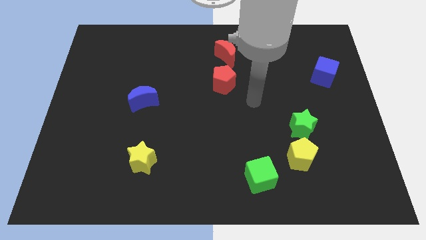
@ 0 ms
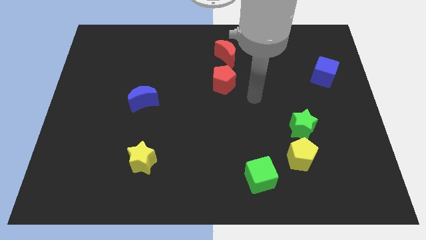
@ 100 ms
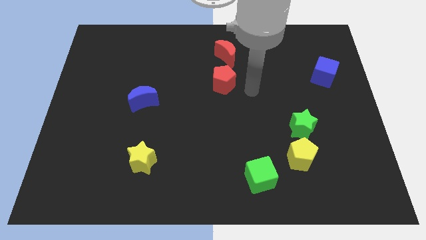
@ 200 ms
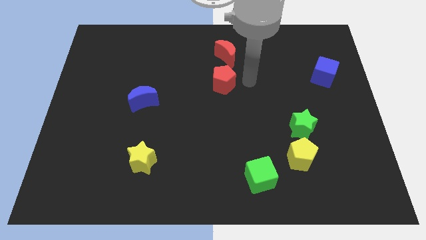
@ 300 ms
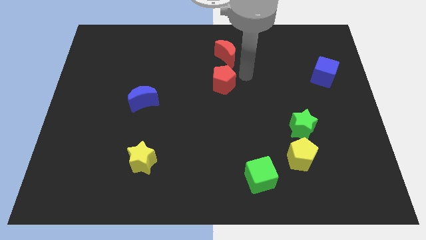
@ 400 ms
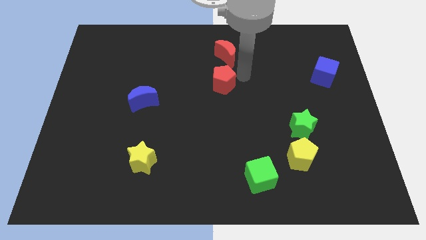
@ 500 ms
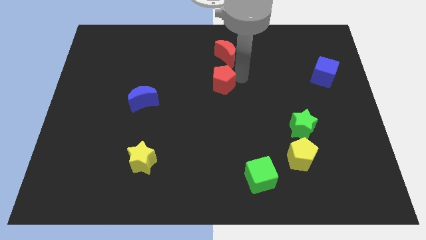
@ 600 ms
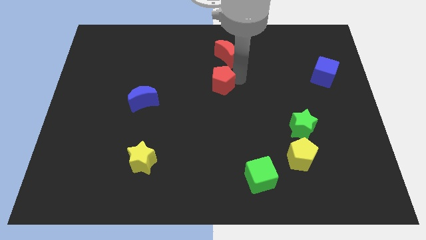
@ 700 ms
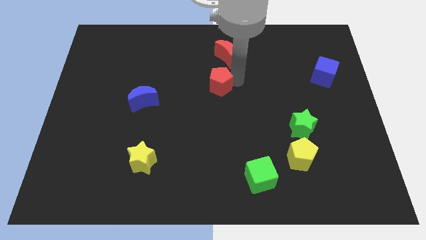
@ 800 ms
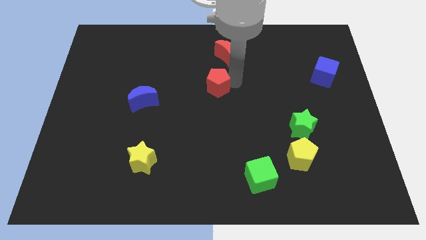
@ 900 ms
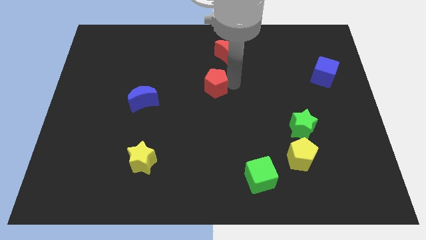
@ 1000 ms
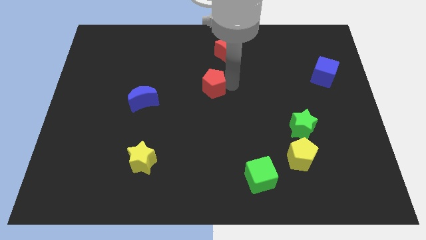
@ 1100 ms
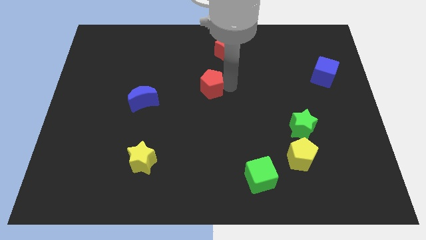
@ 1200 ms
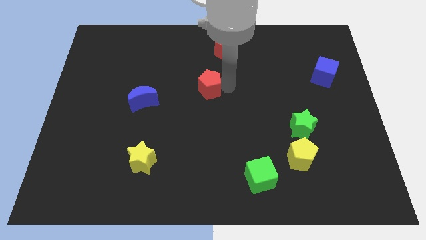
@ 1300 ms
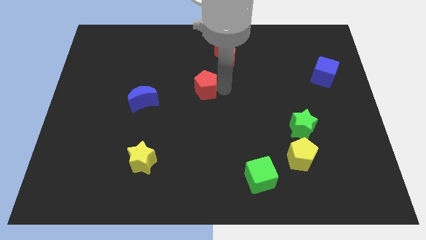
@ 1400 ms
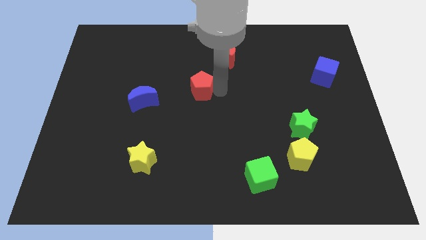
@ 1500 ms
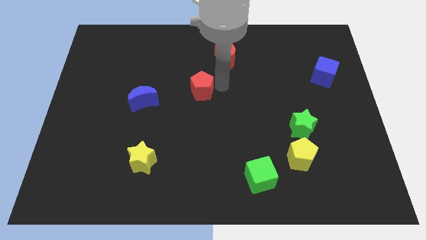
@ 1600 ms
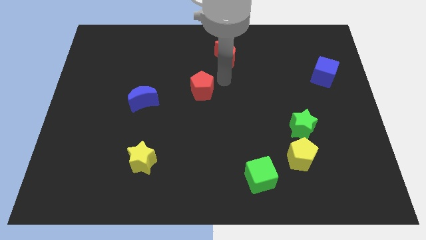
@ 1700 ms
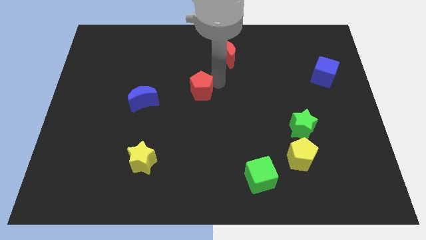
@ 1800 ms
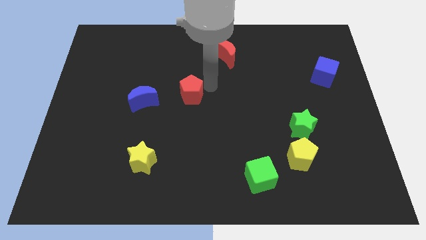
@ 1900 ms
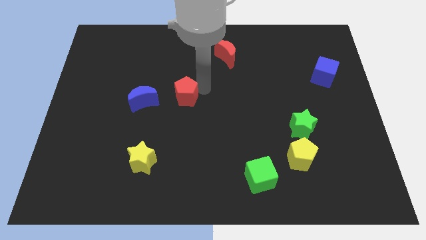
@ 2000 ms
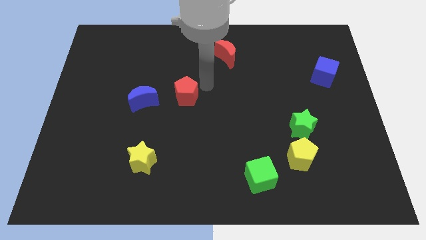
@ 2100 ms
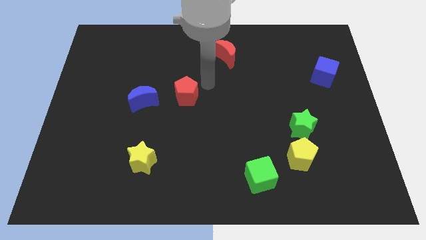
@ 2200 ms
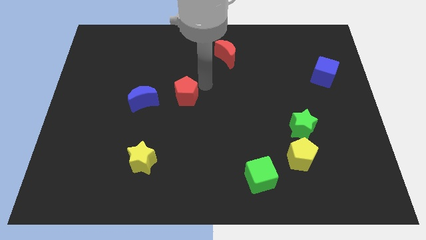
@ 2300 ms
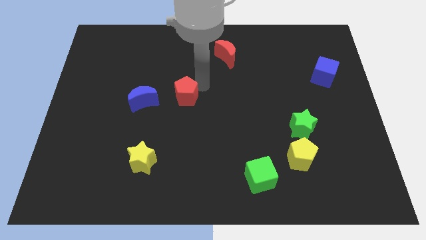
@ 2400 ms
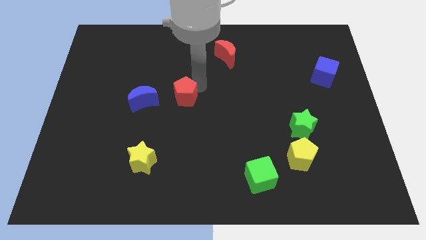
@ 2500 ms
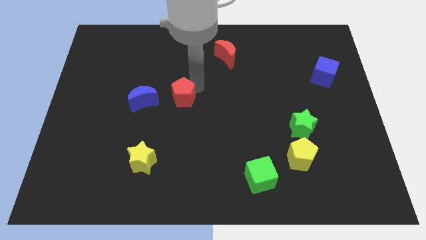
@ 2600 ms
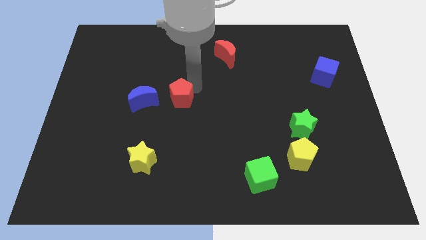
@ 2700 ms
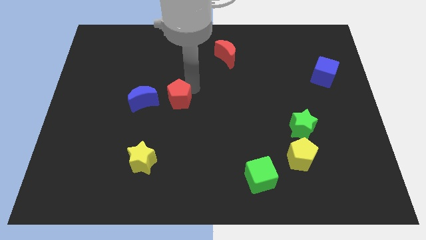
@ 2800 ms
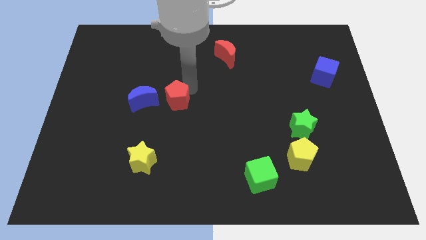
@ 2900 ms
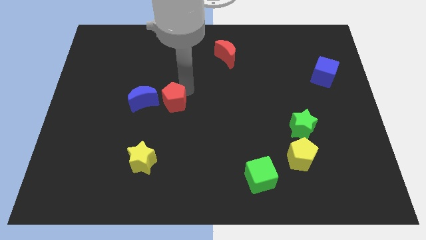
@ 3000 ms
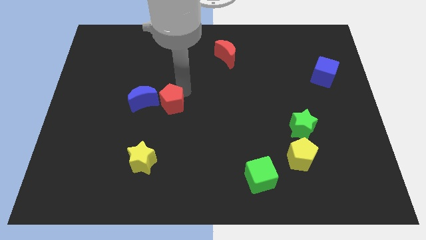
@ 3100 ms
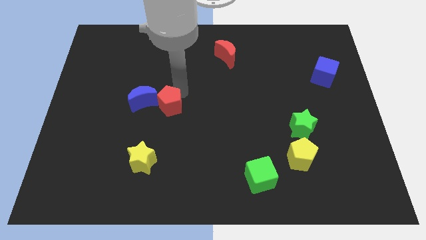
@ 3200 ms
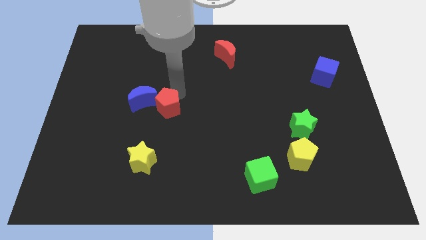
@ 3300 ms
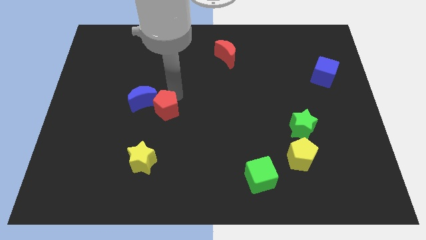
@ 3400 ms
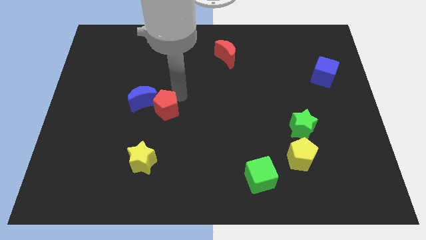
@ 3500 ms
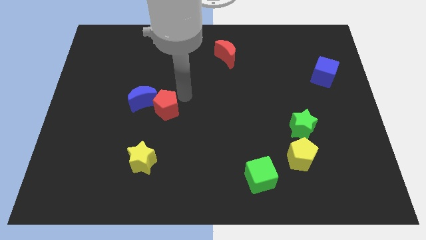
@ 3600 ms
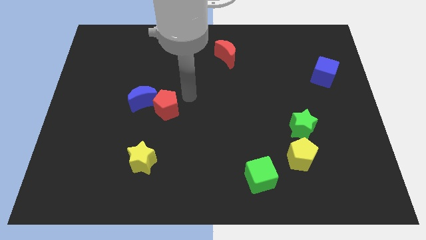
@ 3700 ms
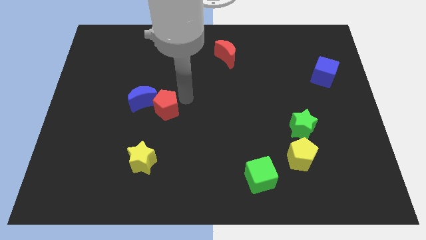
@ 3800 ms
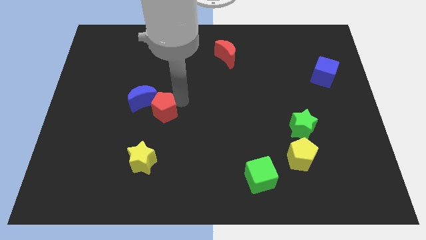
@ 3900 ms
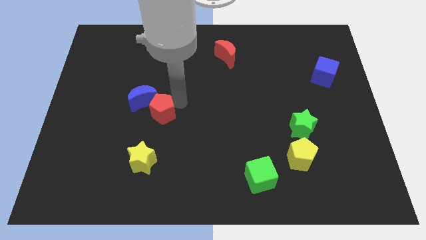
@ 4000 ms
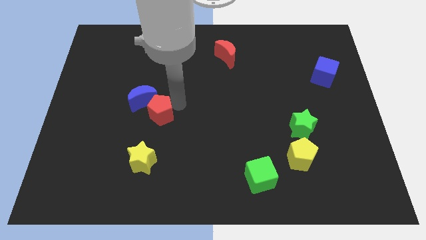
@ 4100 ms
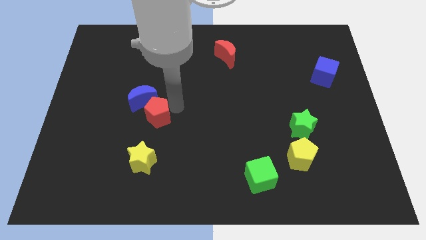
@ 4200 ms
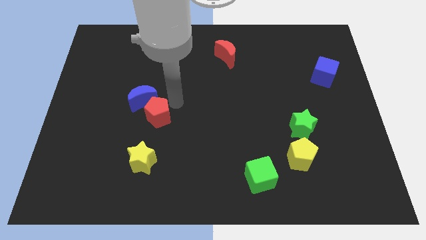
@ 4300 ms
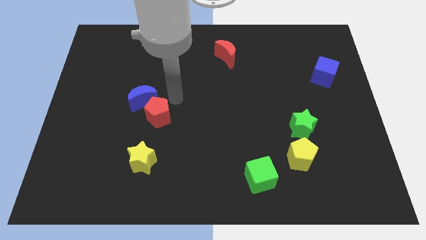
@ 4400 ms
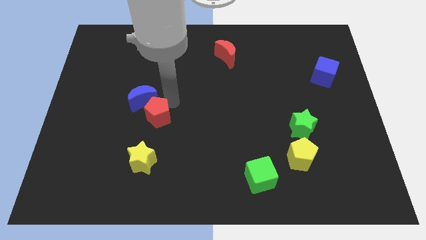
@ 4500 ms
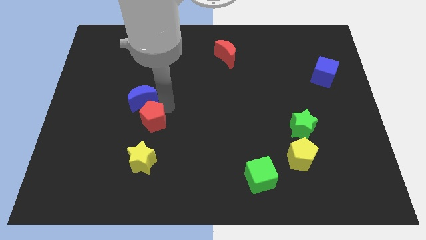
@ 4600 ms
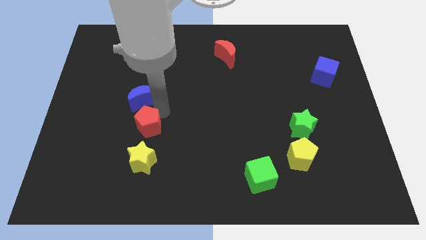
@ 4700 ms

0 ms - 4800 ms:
slide the red pentagon diagonally down and to the left

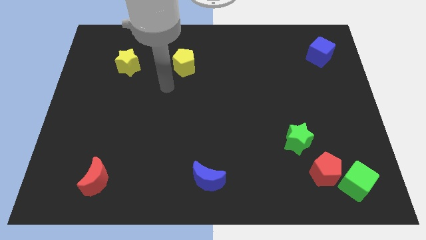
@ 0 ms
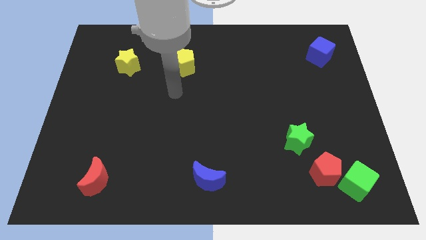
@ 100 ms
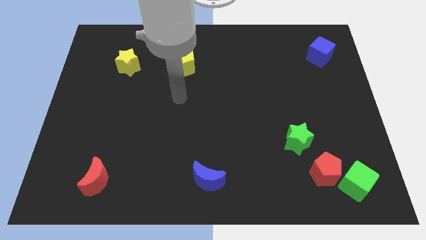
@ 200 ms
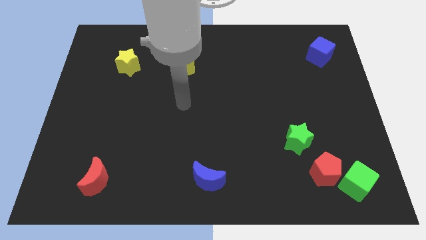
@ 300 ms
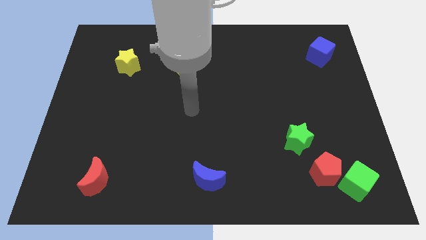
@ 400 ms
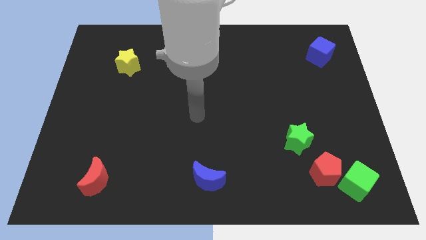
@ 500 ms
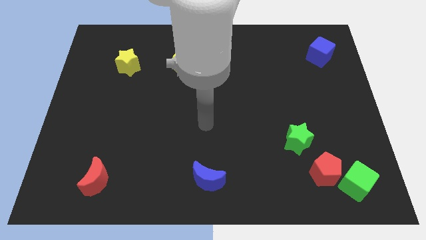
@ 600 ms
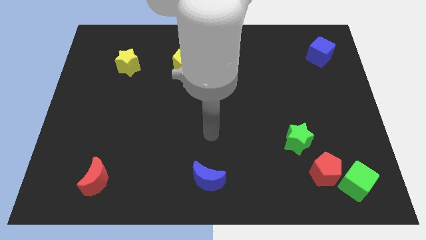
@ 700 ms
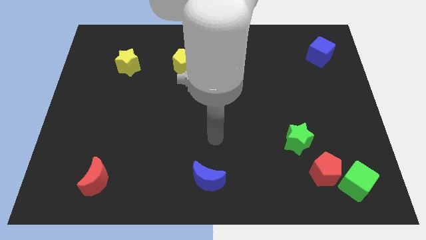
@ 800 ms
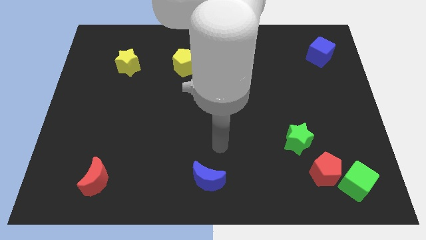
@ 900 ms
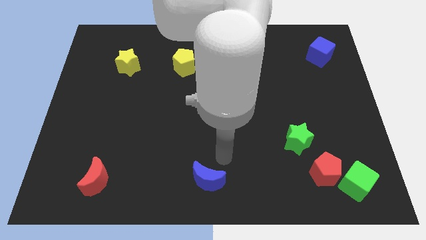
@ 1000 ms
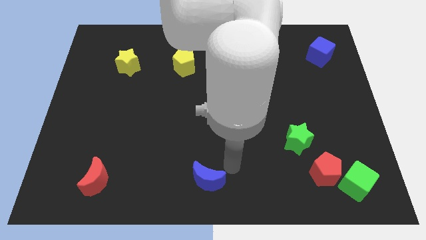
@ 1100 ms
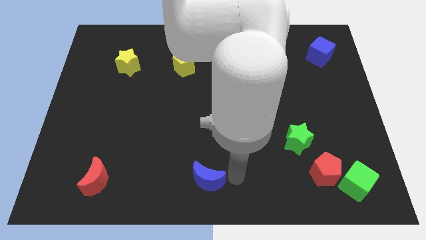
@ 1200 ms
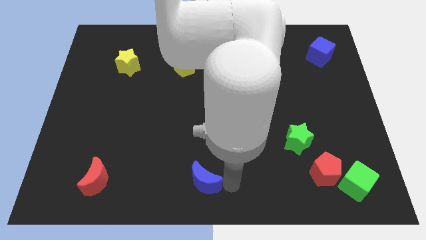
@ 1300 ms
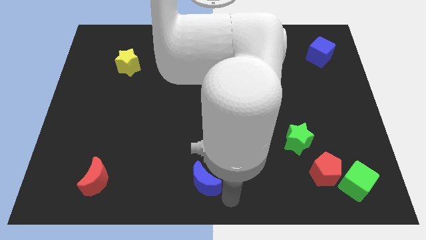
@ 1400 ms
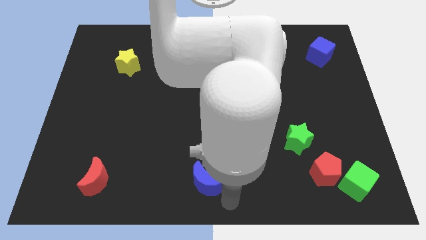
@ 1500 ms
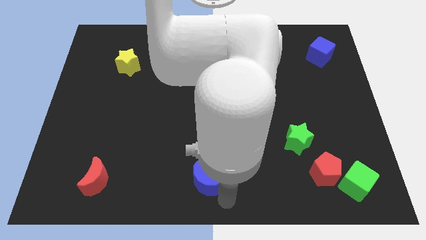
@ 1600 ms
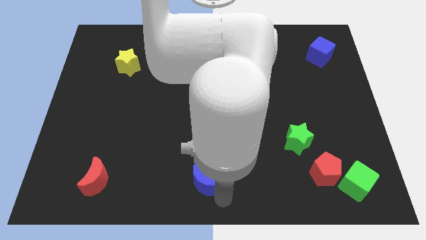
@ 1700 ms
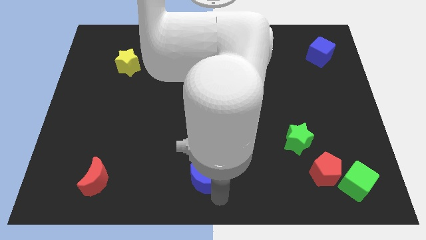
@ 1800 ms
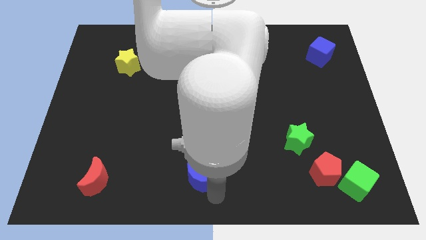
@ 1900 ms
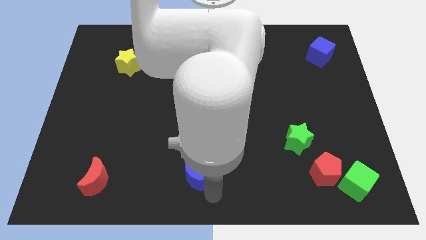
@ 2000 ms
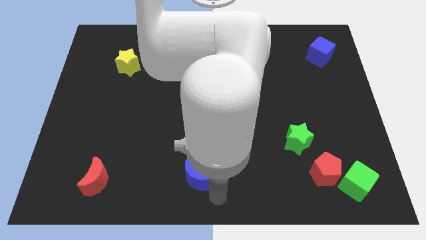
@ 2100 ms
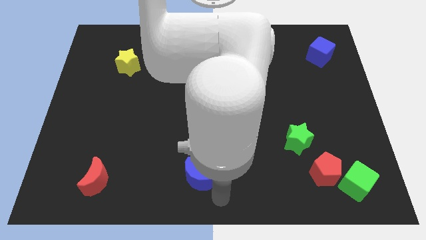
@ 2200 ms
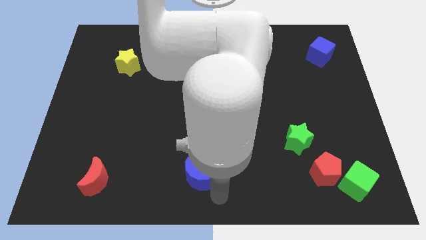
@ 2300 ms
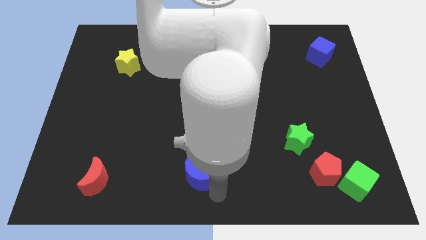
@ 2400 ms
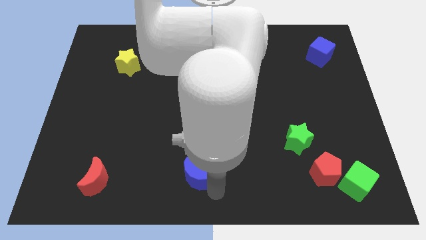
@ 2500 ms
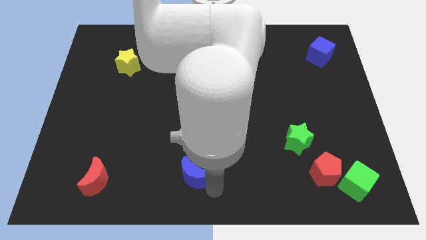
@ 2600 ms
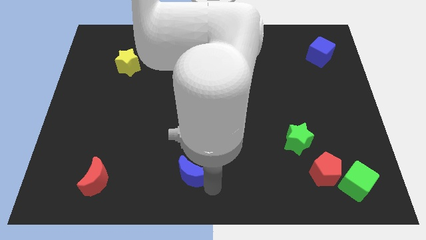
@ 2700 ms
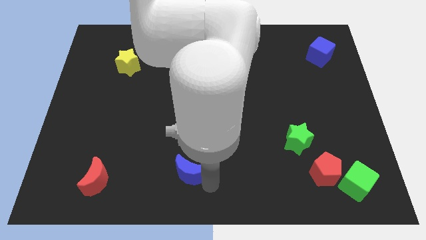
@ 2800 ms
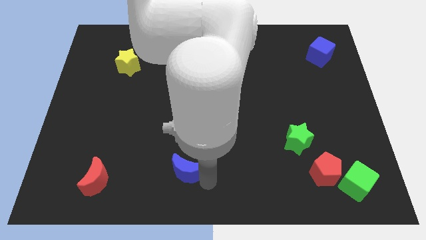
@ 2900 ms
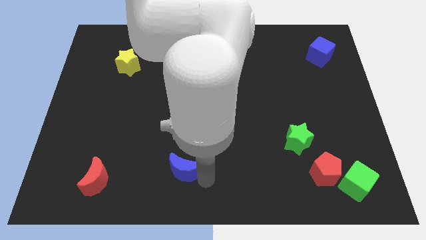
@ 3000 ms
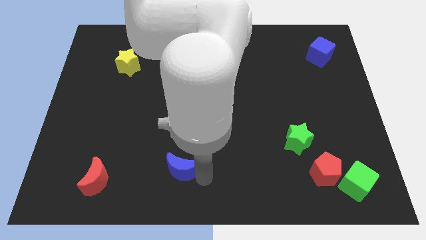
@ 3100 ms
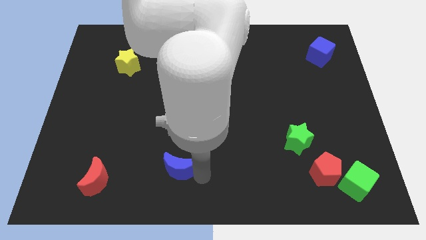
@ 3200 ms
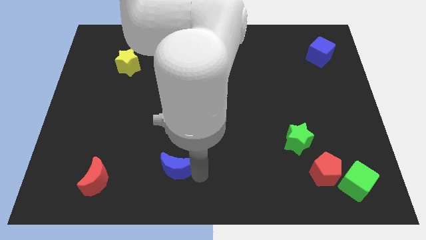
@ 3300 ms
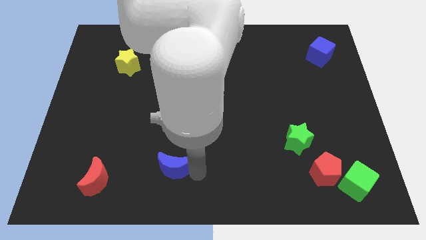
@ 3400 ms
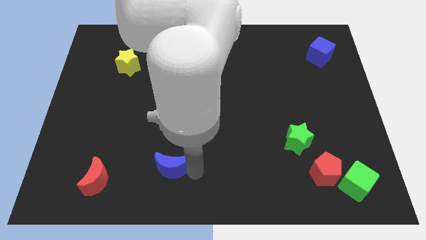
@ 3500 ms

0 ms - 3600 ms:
slide the blue moon somewhat upwards and to the left diagonally
